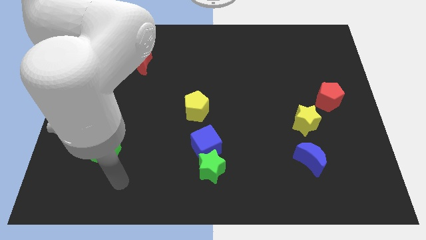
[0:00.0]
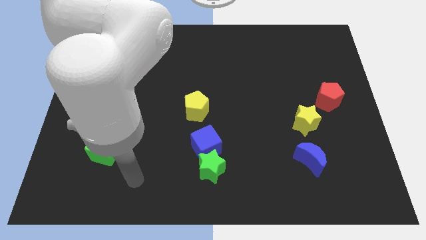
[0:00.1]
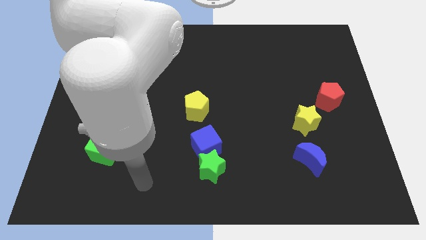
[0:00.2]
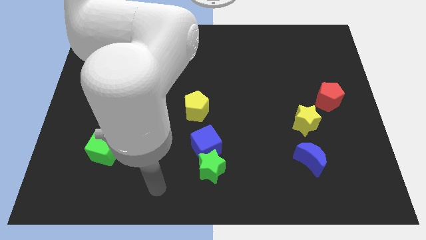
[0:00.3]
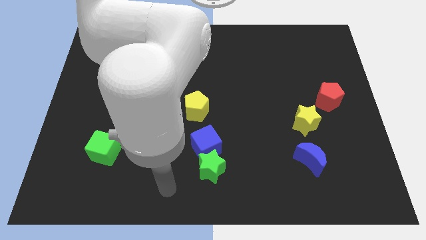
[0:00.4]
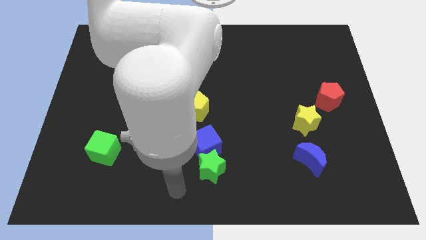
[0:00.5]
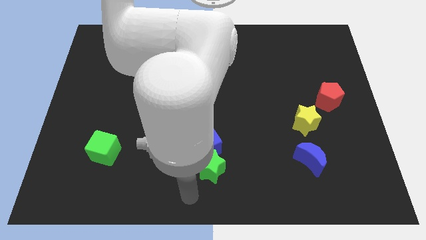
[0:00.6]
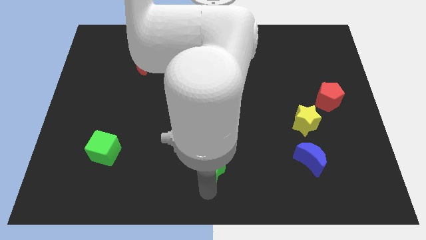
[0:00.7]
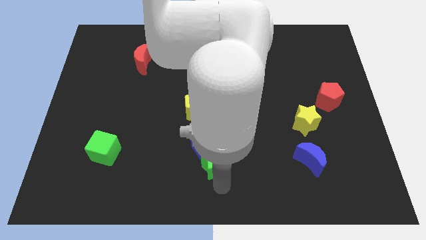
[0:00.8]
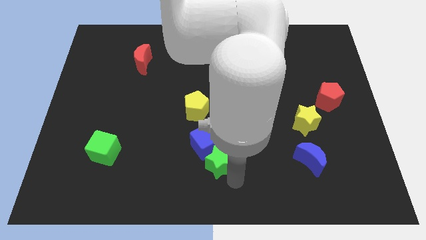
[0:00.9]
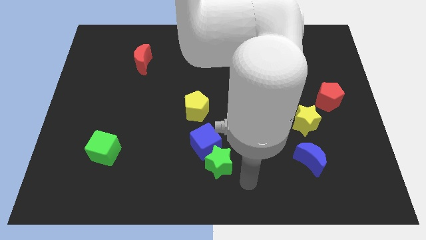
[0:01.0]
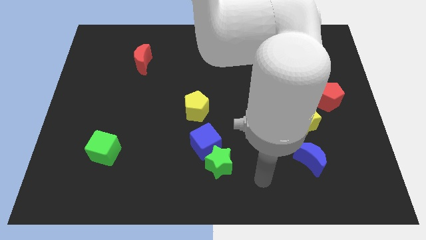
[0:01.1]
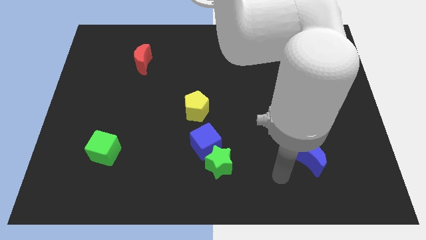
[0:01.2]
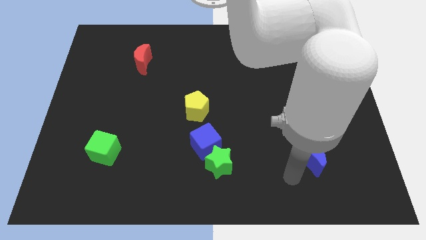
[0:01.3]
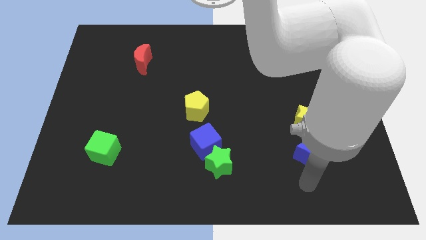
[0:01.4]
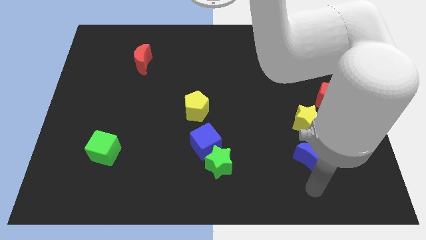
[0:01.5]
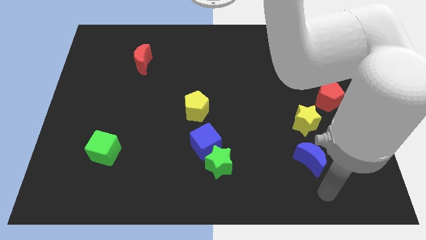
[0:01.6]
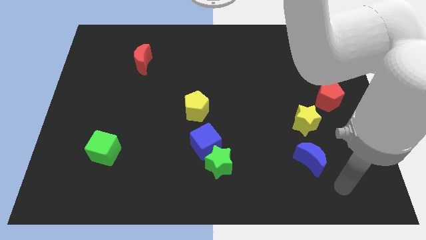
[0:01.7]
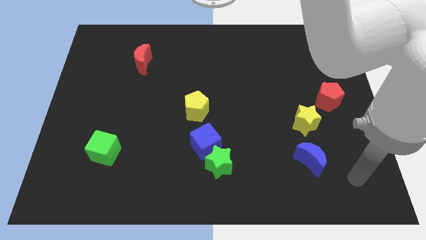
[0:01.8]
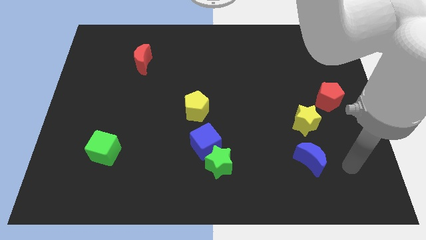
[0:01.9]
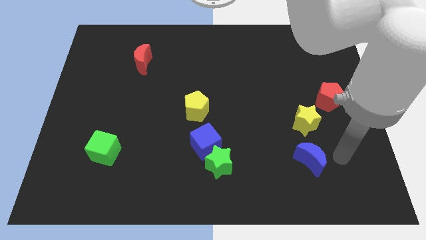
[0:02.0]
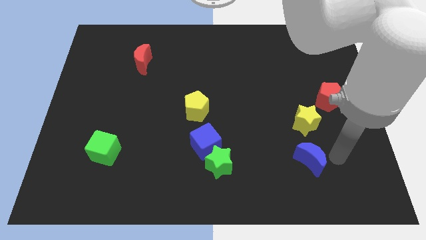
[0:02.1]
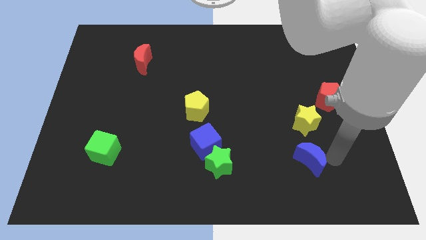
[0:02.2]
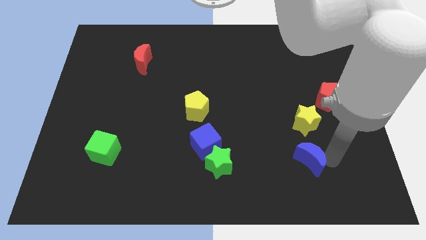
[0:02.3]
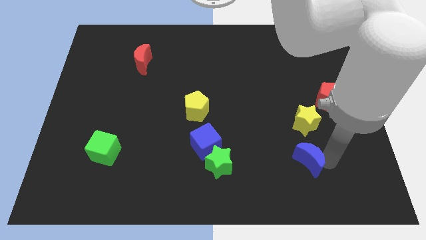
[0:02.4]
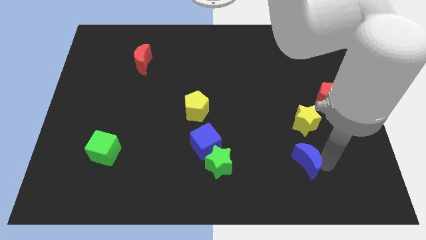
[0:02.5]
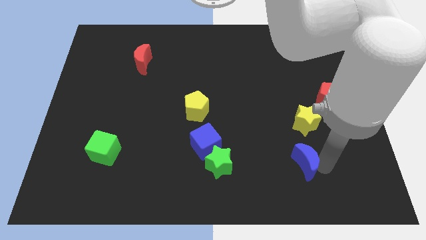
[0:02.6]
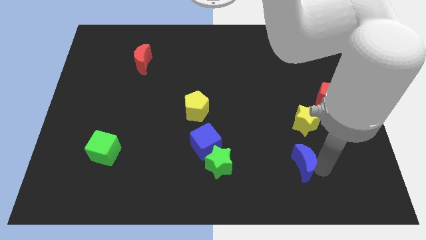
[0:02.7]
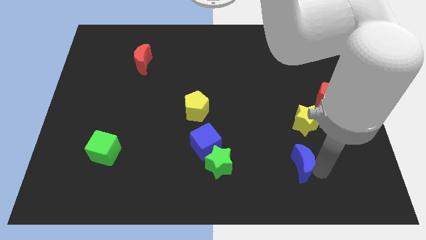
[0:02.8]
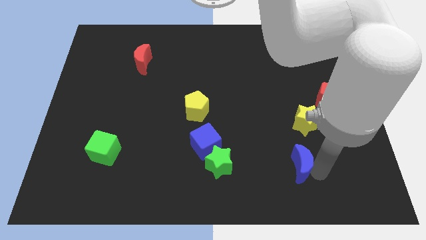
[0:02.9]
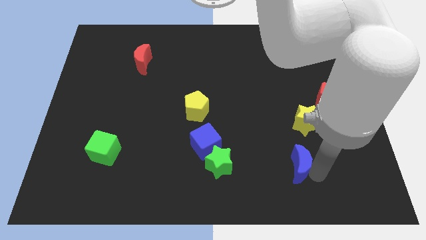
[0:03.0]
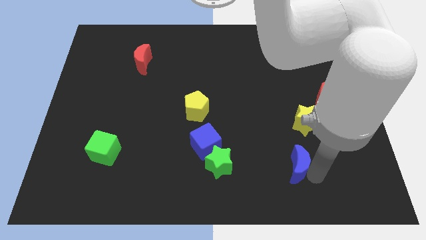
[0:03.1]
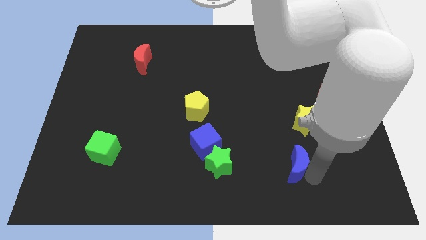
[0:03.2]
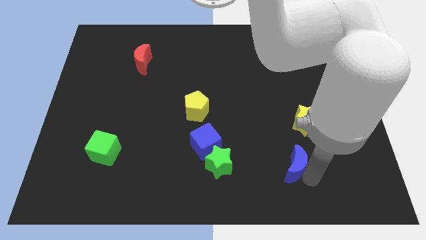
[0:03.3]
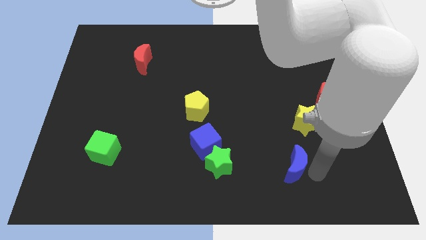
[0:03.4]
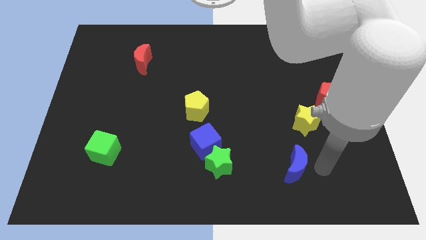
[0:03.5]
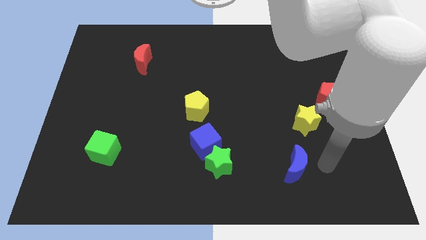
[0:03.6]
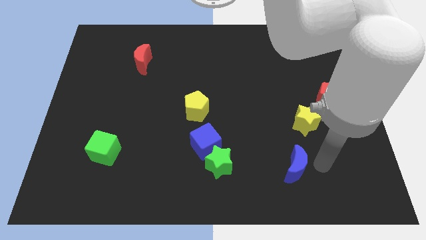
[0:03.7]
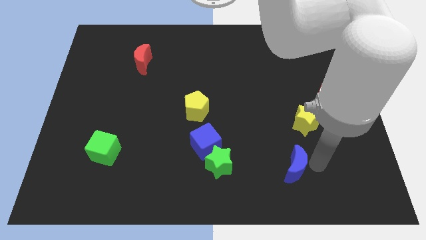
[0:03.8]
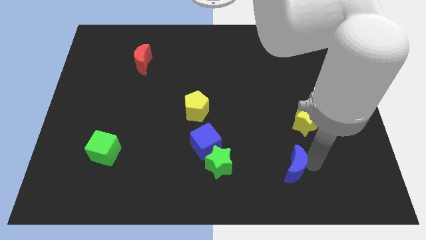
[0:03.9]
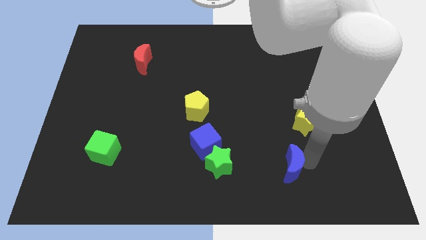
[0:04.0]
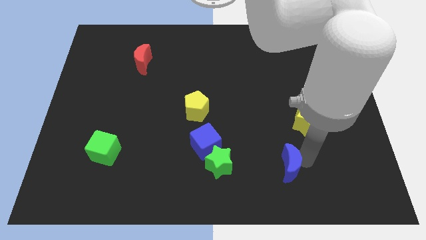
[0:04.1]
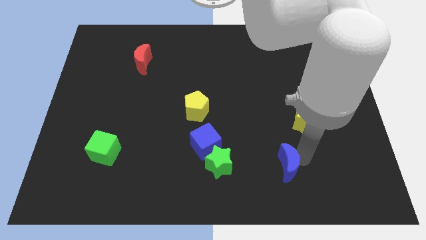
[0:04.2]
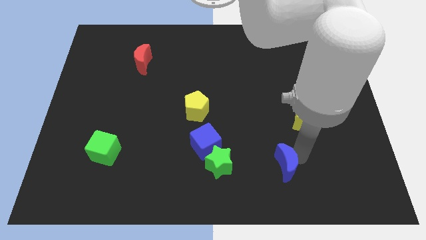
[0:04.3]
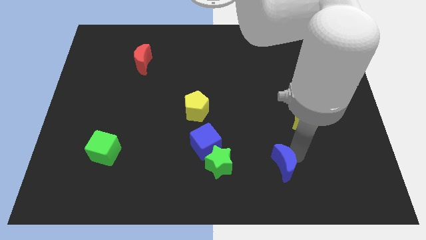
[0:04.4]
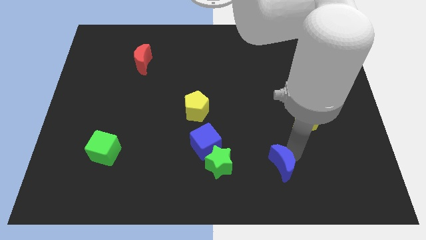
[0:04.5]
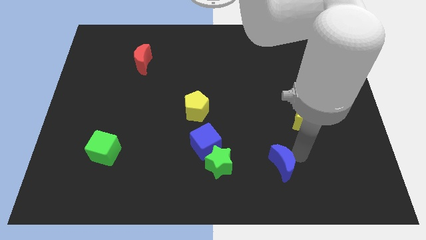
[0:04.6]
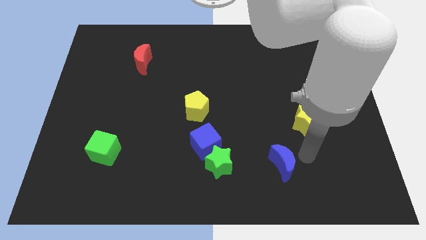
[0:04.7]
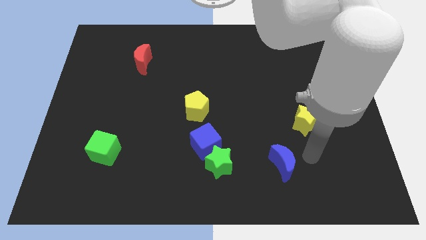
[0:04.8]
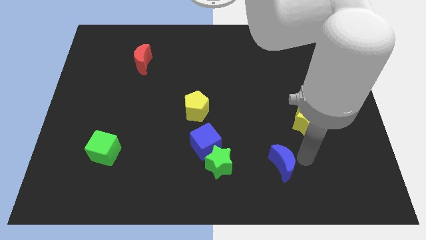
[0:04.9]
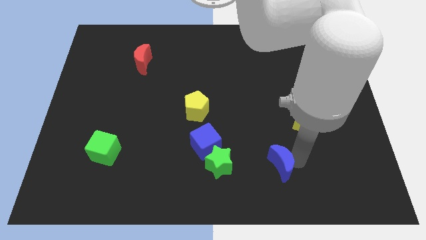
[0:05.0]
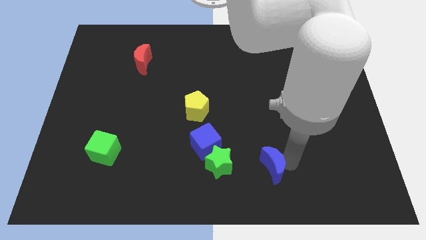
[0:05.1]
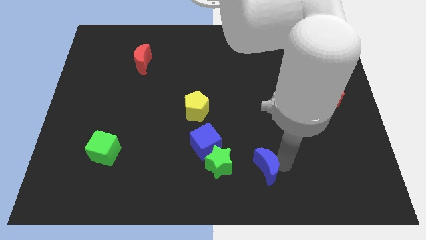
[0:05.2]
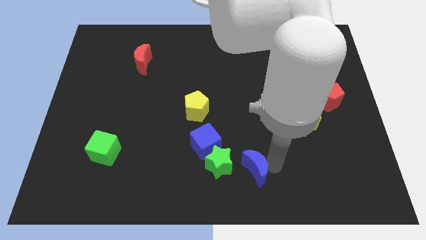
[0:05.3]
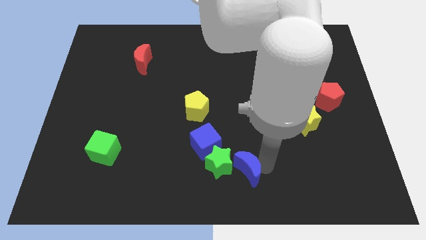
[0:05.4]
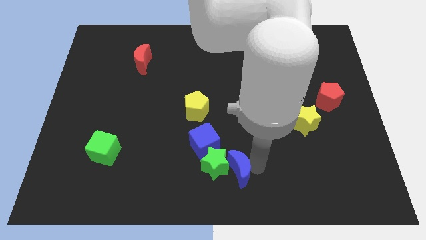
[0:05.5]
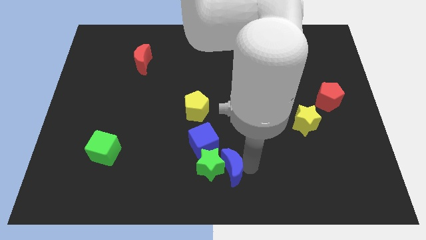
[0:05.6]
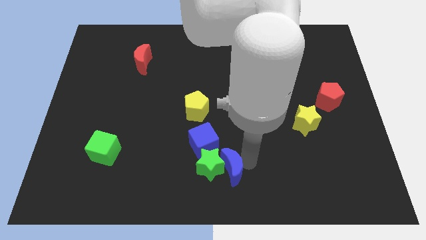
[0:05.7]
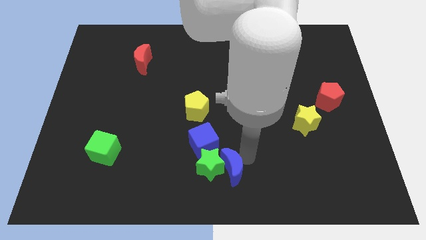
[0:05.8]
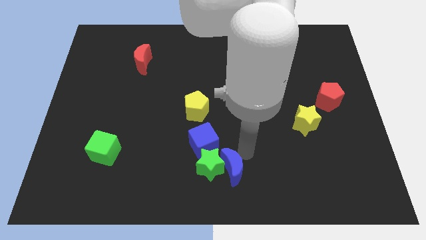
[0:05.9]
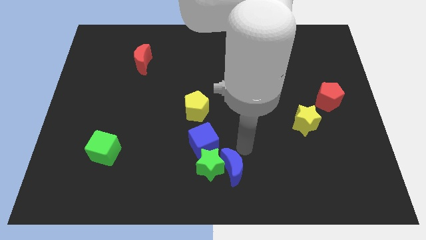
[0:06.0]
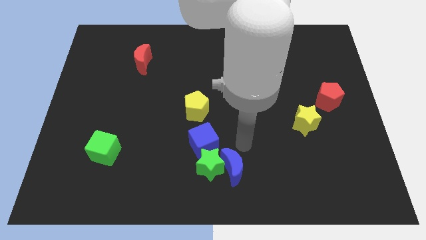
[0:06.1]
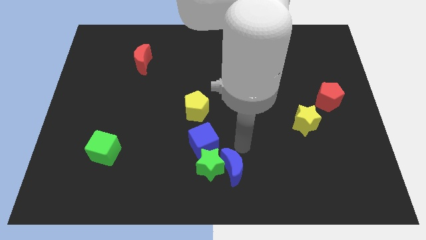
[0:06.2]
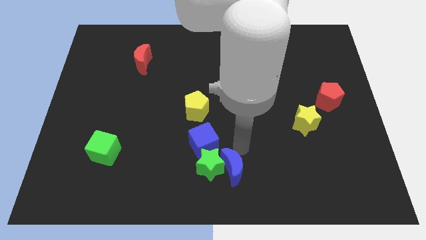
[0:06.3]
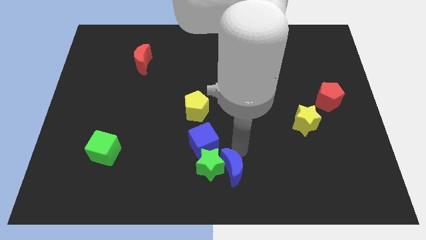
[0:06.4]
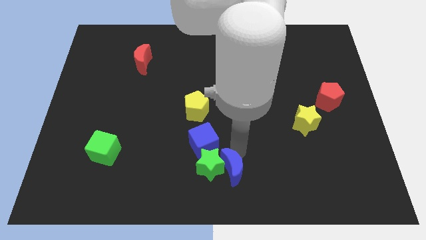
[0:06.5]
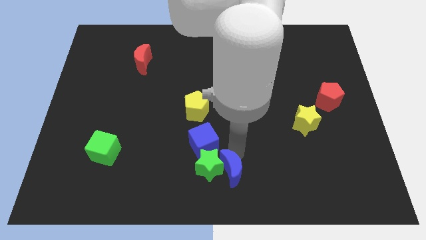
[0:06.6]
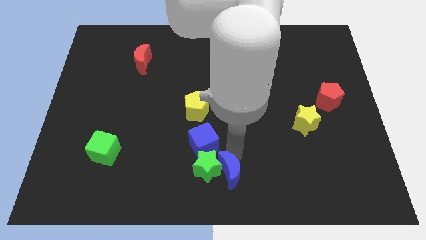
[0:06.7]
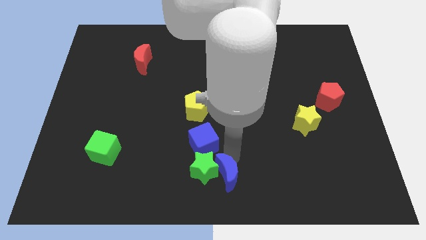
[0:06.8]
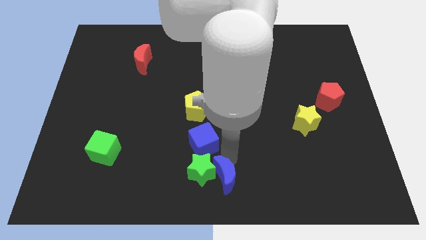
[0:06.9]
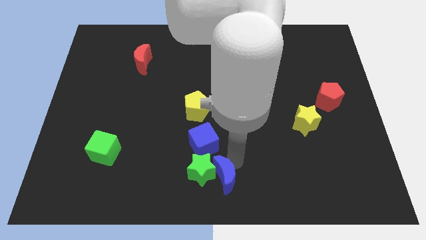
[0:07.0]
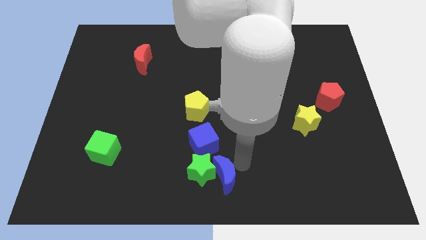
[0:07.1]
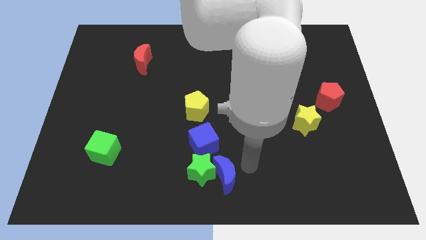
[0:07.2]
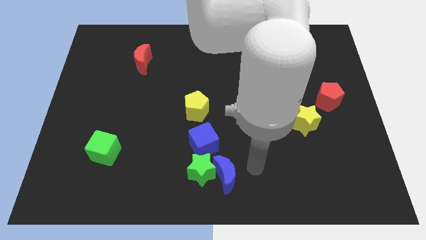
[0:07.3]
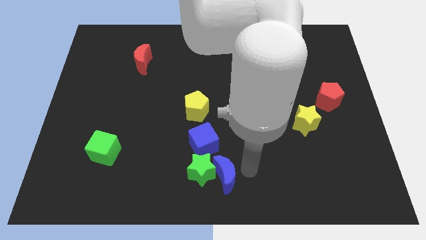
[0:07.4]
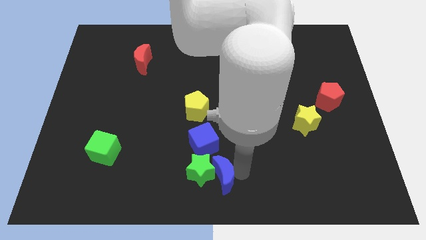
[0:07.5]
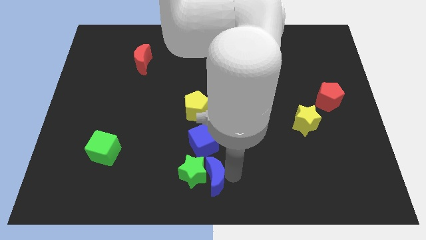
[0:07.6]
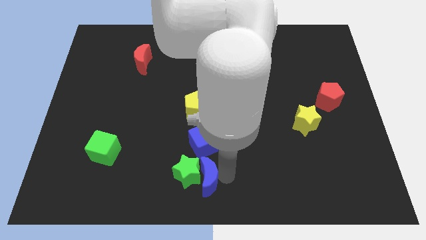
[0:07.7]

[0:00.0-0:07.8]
slide the blue moon left
